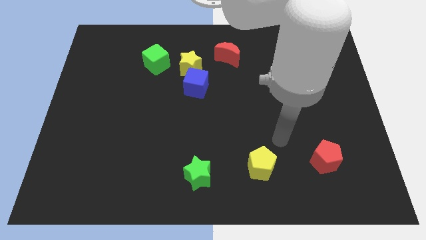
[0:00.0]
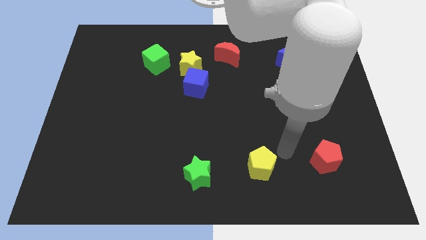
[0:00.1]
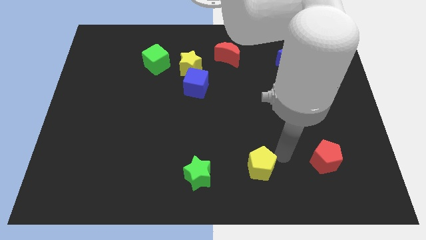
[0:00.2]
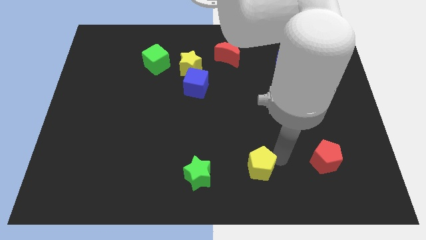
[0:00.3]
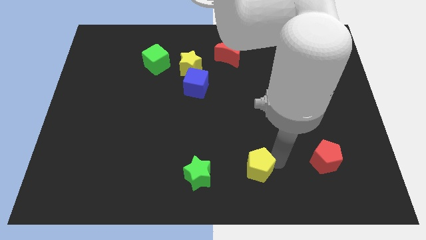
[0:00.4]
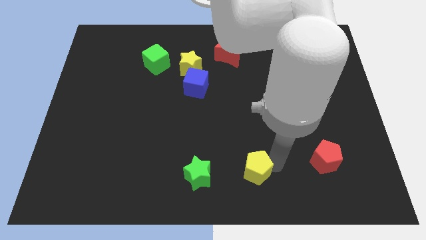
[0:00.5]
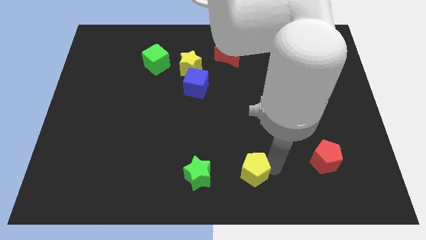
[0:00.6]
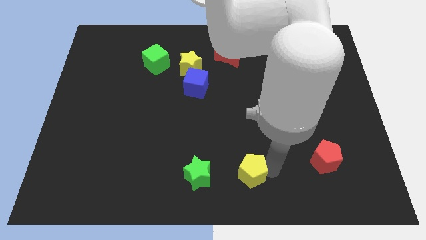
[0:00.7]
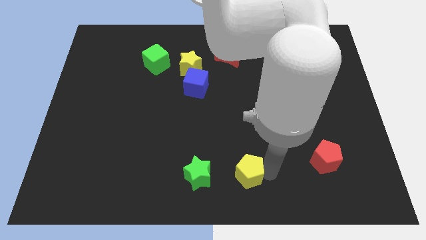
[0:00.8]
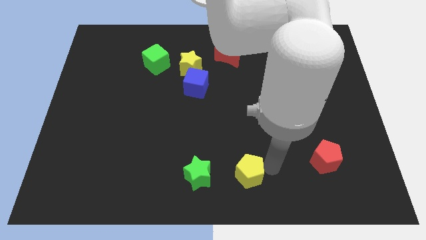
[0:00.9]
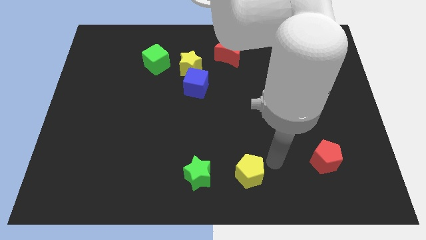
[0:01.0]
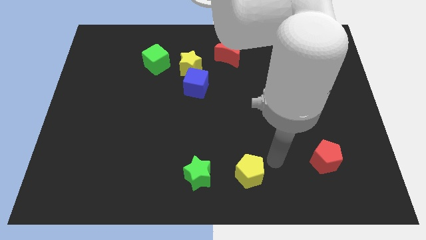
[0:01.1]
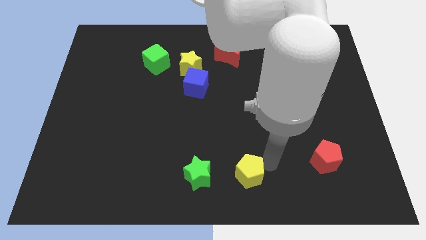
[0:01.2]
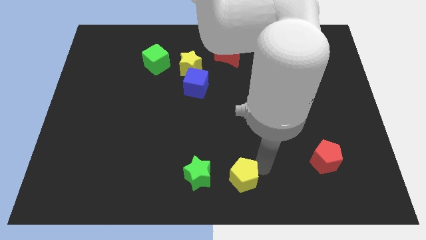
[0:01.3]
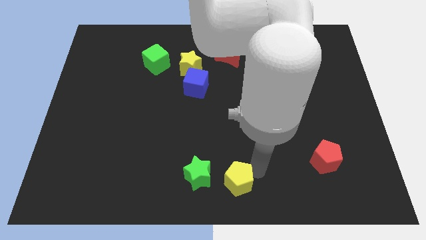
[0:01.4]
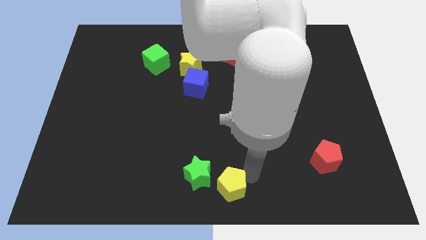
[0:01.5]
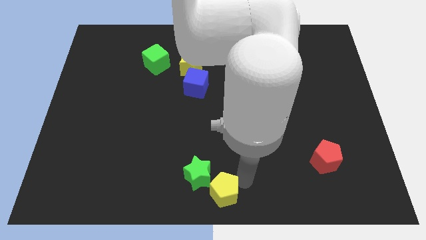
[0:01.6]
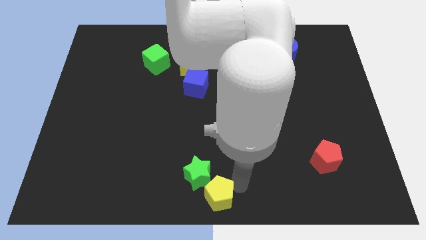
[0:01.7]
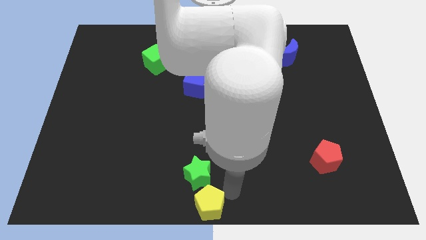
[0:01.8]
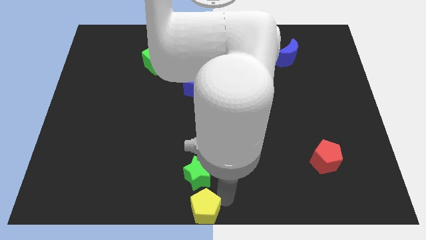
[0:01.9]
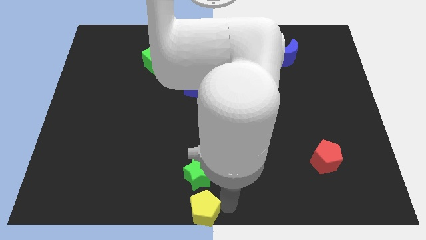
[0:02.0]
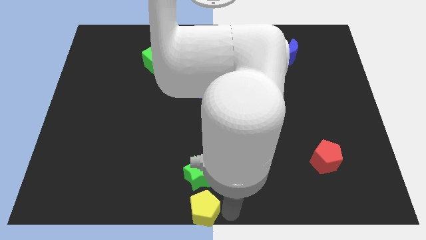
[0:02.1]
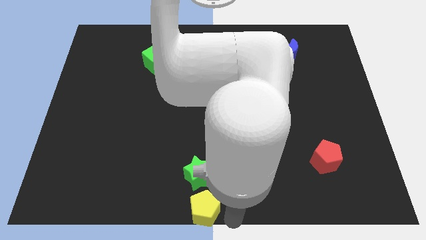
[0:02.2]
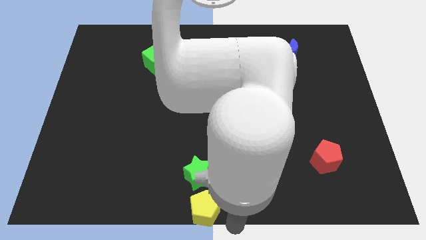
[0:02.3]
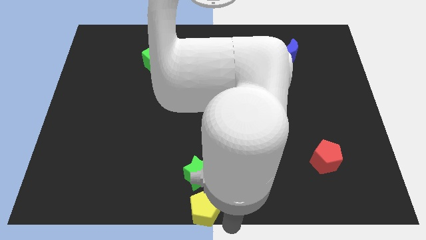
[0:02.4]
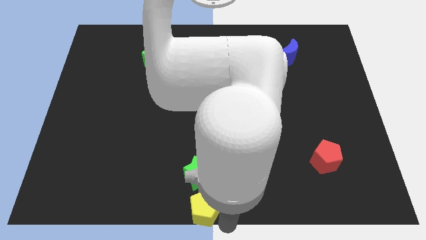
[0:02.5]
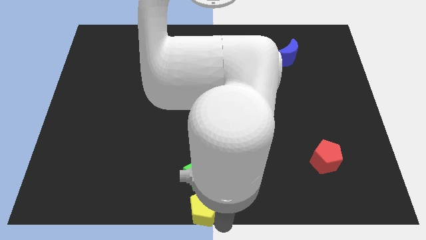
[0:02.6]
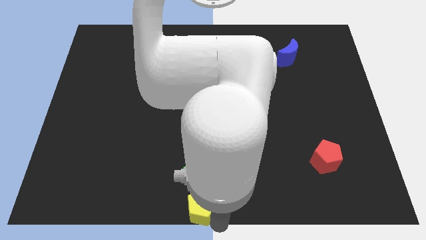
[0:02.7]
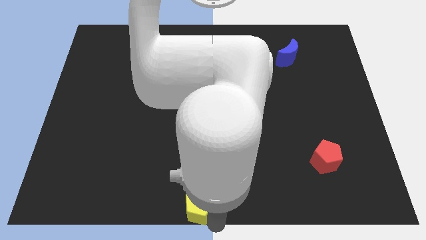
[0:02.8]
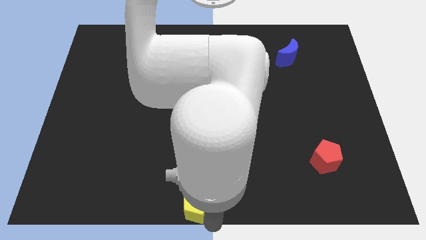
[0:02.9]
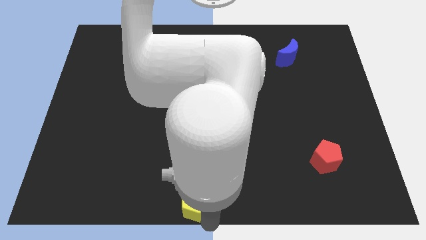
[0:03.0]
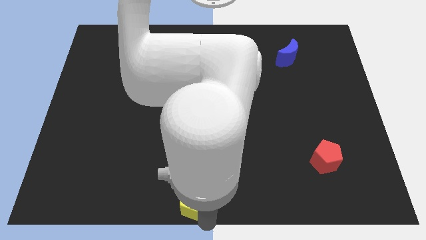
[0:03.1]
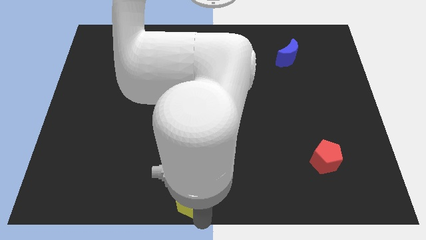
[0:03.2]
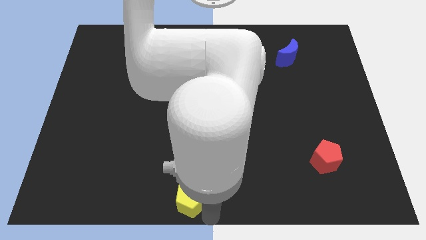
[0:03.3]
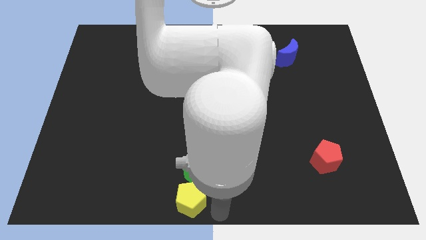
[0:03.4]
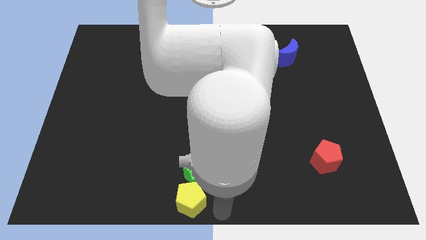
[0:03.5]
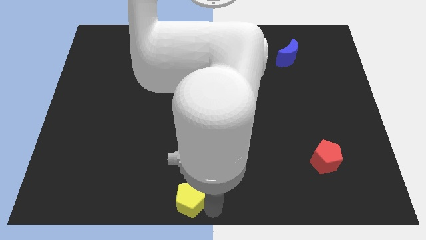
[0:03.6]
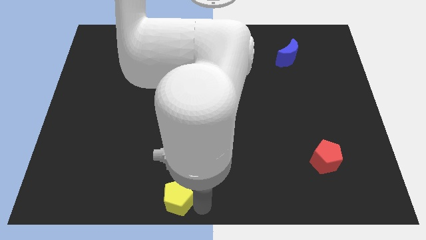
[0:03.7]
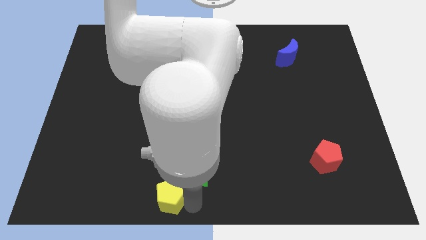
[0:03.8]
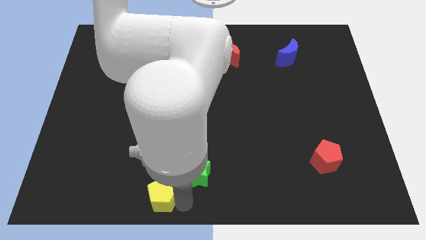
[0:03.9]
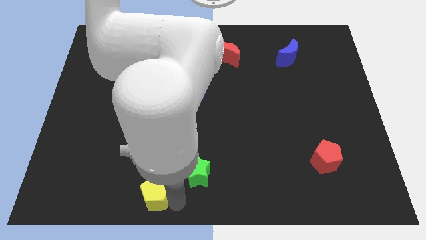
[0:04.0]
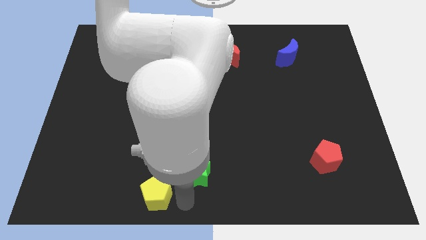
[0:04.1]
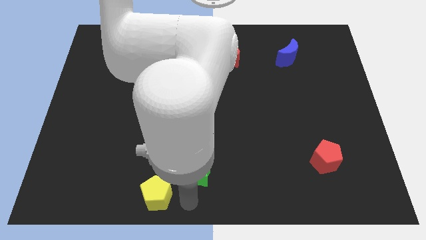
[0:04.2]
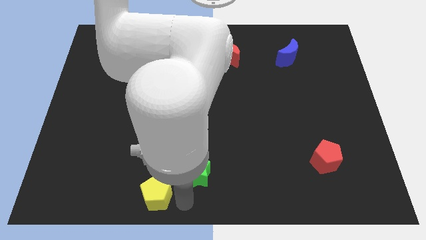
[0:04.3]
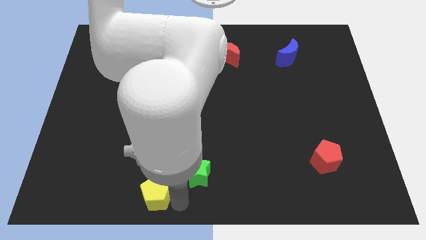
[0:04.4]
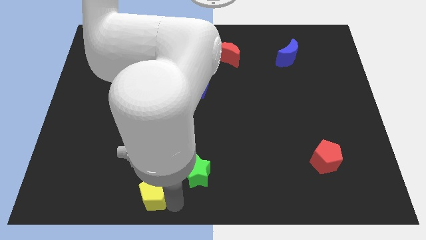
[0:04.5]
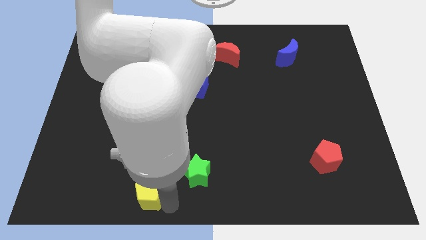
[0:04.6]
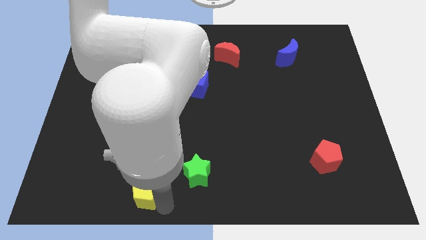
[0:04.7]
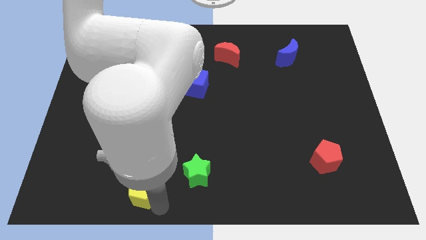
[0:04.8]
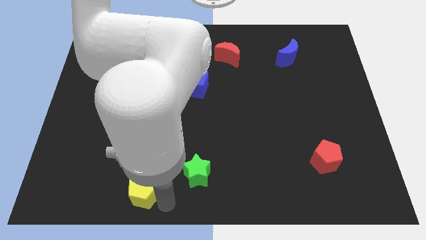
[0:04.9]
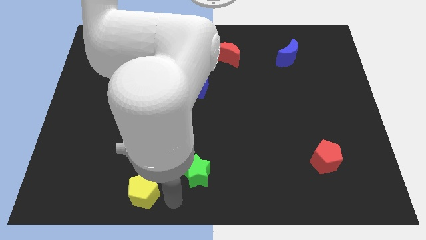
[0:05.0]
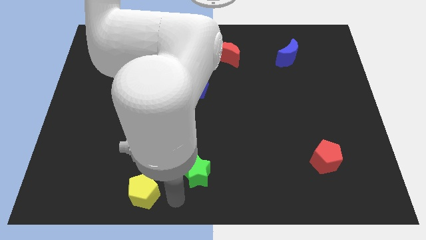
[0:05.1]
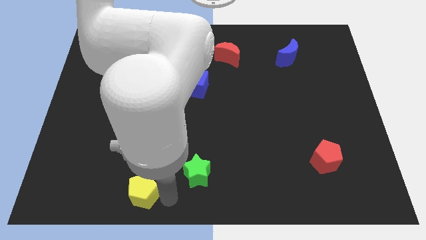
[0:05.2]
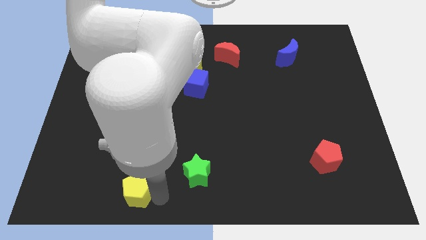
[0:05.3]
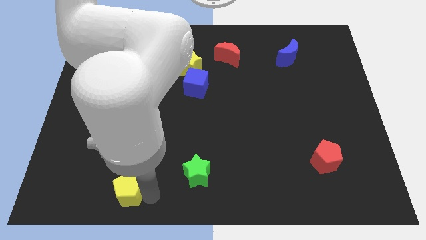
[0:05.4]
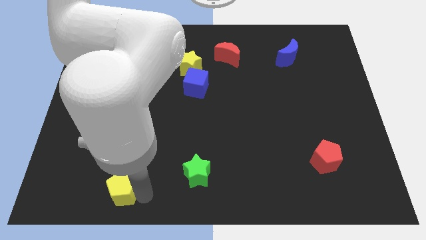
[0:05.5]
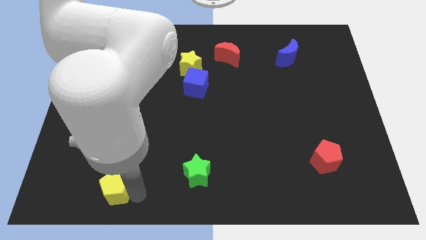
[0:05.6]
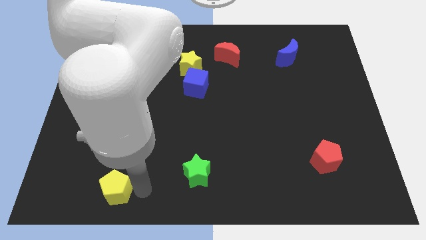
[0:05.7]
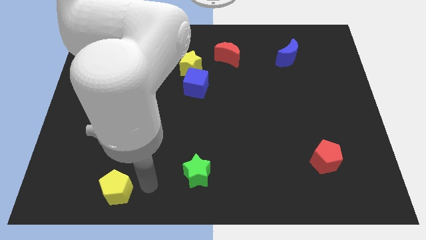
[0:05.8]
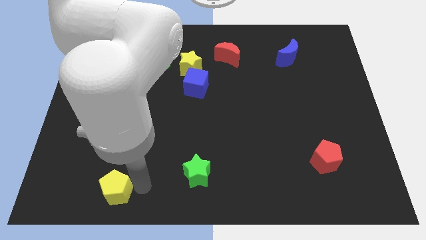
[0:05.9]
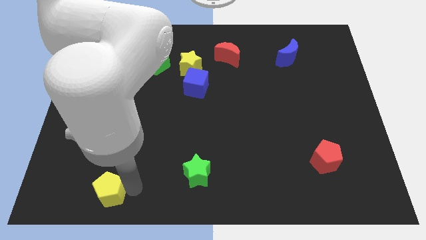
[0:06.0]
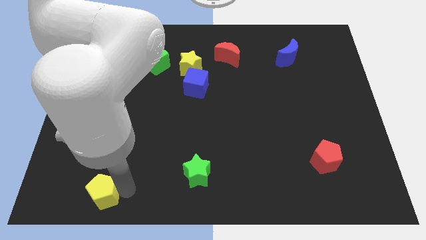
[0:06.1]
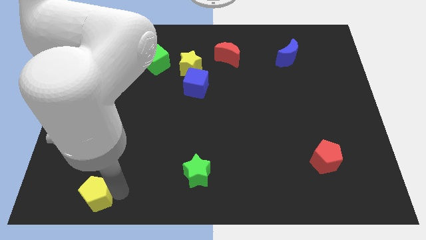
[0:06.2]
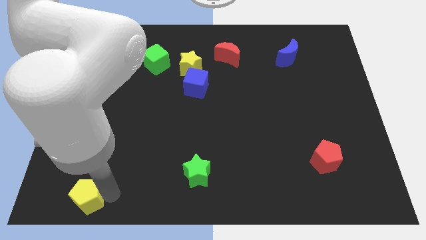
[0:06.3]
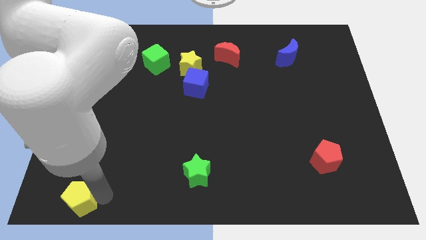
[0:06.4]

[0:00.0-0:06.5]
slide the yellow pentagon to the bottom left of the board

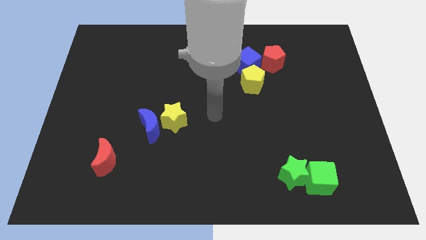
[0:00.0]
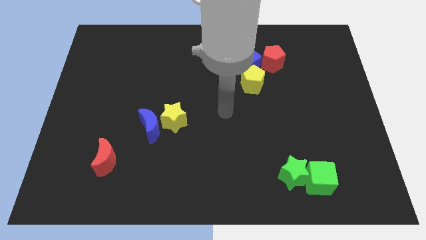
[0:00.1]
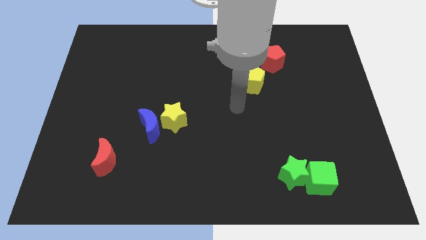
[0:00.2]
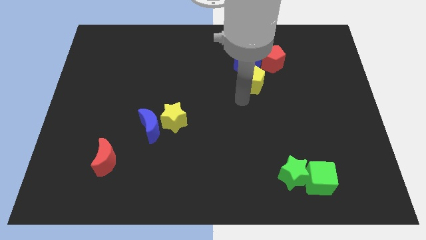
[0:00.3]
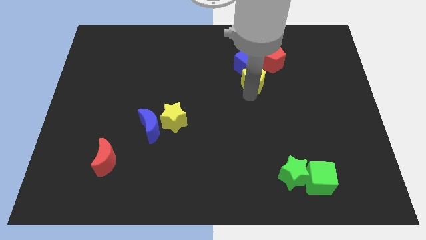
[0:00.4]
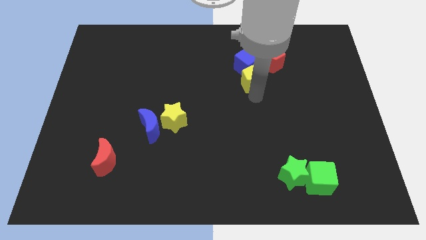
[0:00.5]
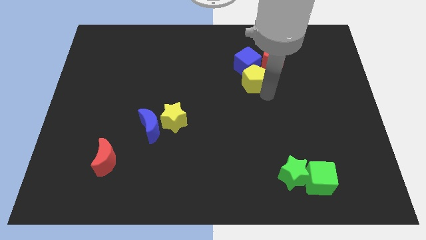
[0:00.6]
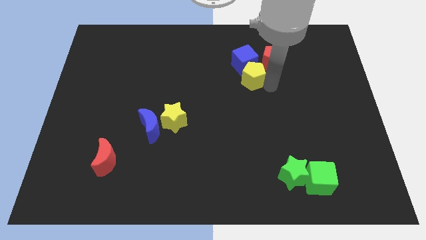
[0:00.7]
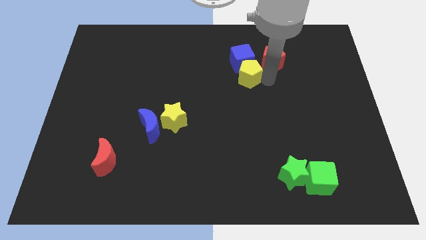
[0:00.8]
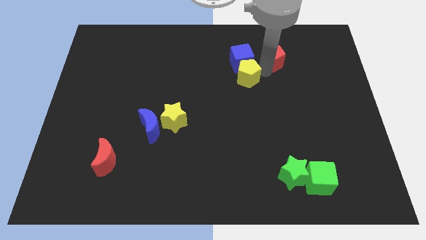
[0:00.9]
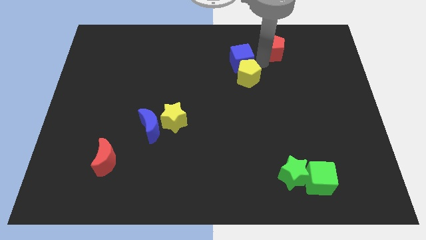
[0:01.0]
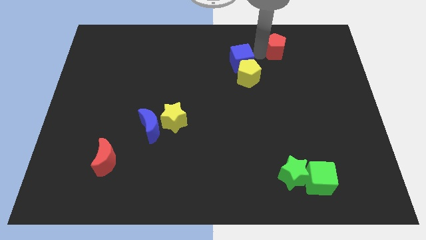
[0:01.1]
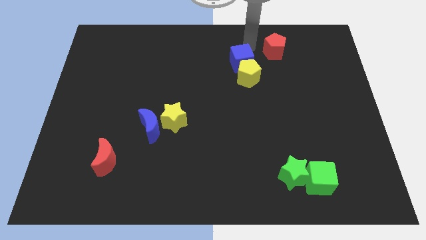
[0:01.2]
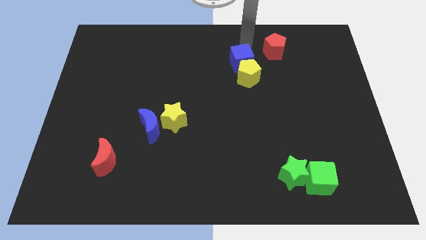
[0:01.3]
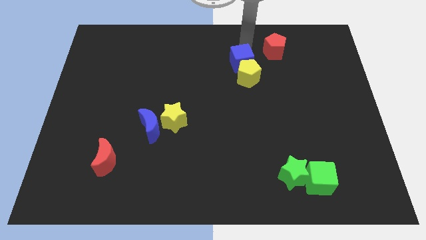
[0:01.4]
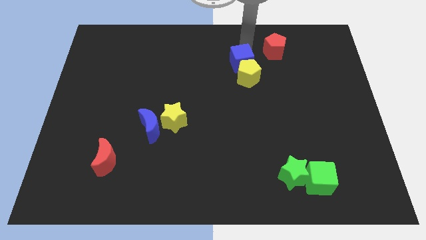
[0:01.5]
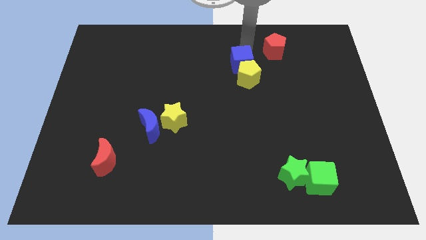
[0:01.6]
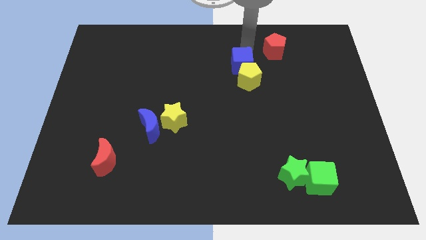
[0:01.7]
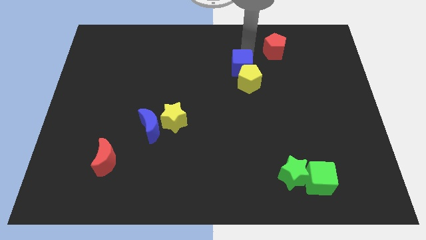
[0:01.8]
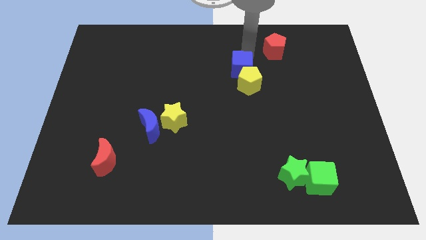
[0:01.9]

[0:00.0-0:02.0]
push the blue cube to the middle of the board
